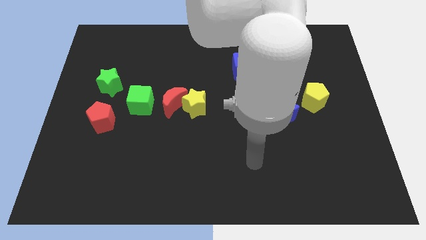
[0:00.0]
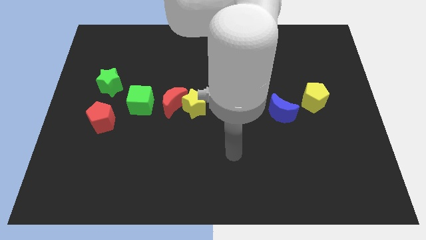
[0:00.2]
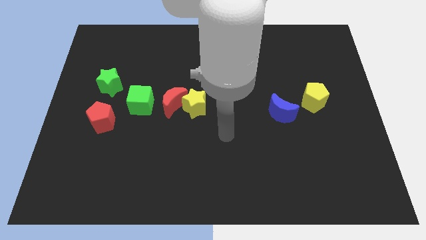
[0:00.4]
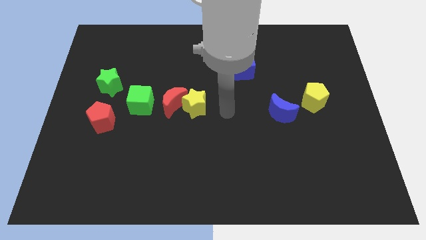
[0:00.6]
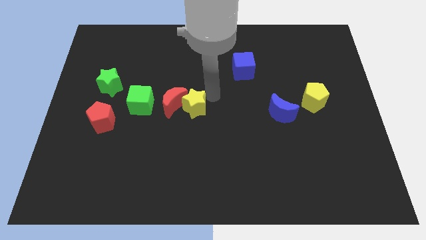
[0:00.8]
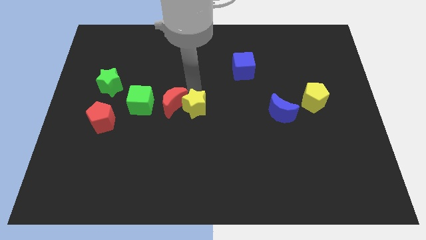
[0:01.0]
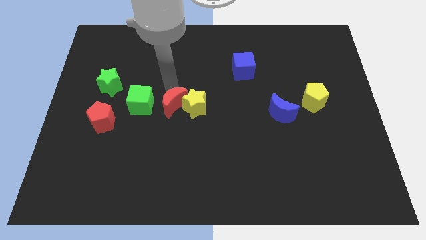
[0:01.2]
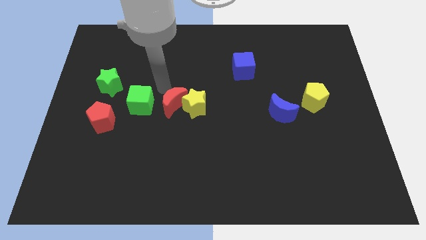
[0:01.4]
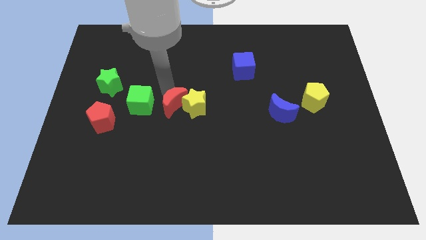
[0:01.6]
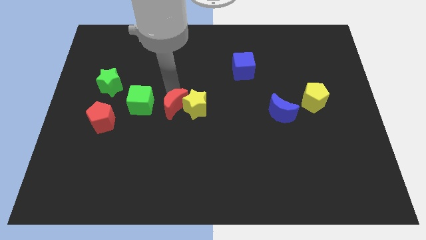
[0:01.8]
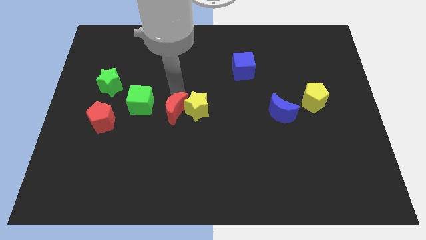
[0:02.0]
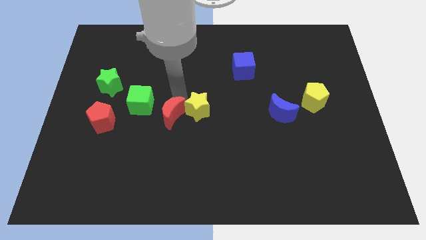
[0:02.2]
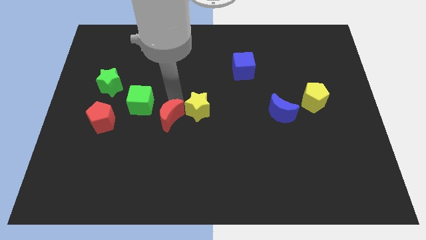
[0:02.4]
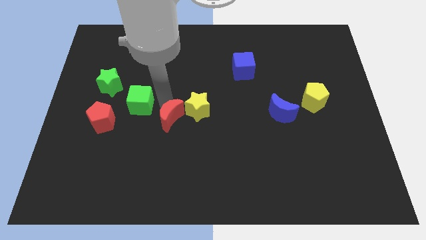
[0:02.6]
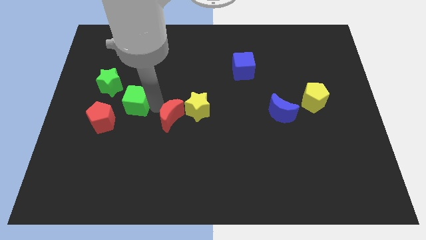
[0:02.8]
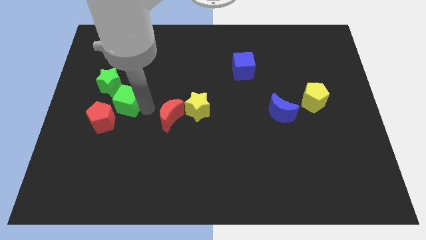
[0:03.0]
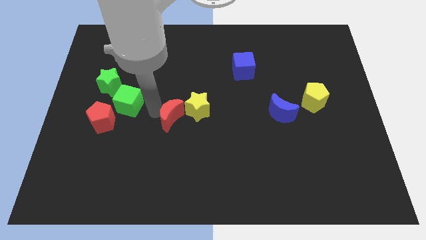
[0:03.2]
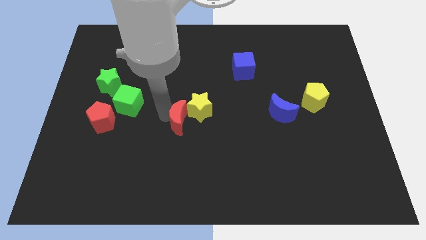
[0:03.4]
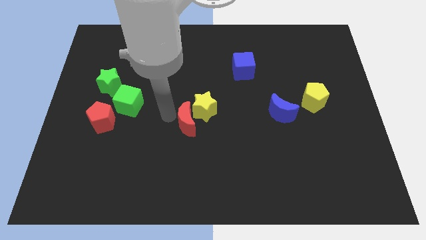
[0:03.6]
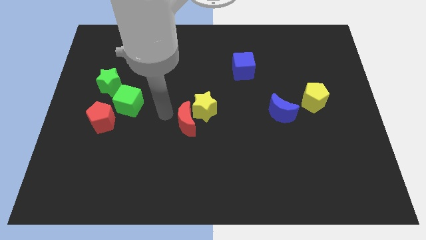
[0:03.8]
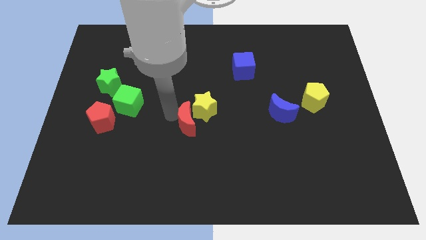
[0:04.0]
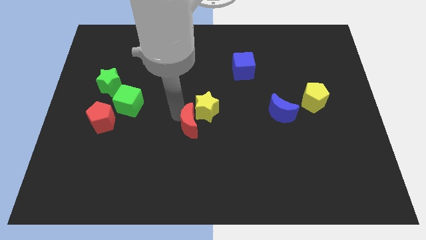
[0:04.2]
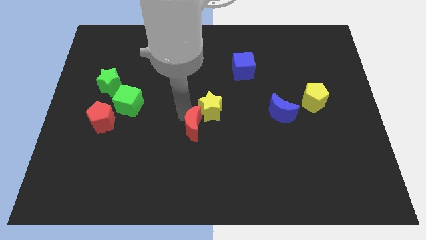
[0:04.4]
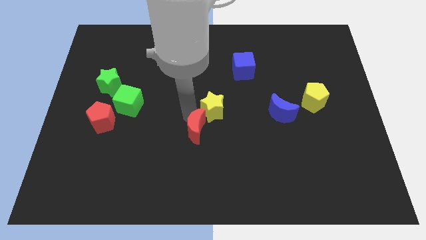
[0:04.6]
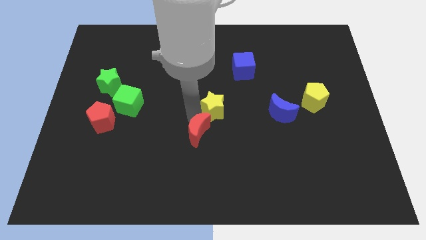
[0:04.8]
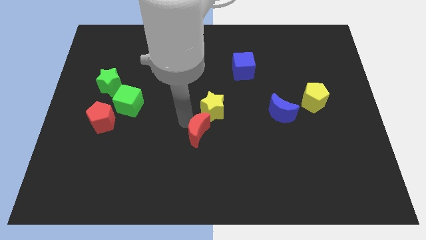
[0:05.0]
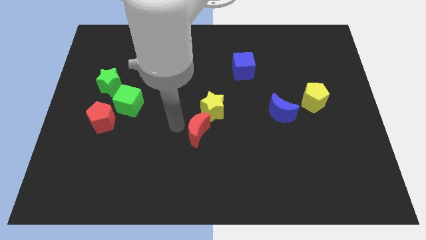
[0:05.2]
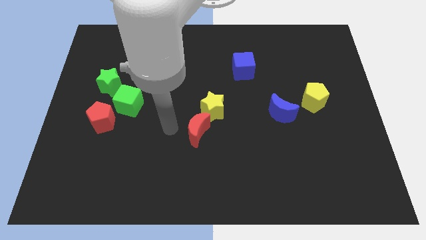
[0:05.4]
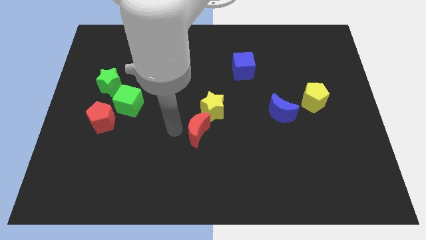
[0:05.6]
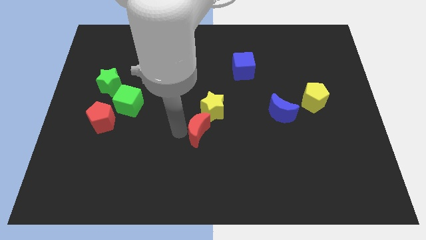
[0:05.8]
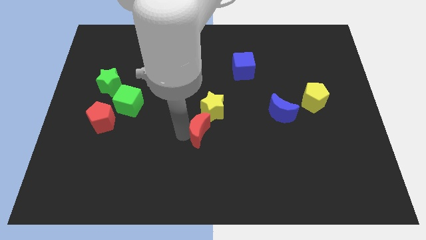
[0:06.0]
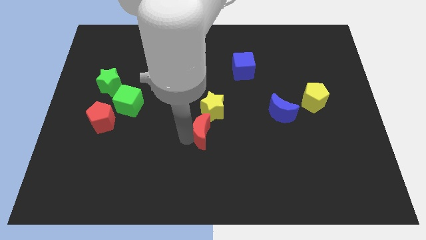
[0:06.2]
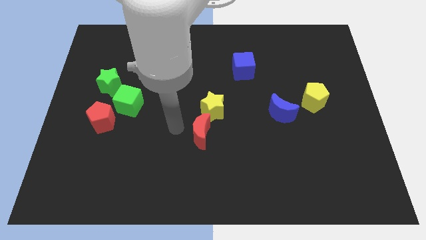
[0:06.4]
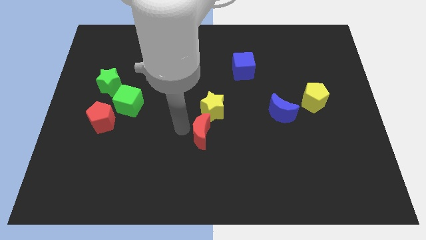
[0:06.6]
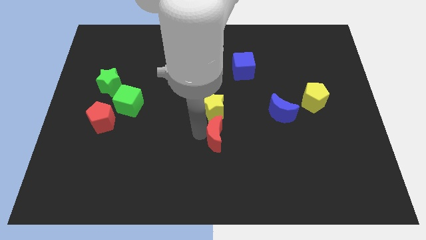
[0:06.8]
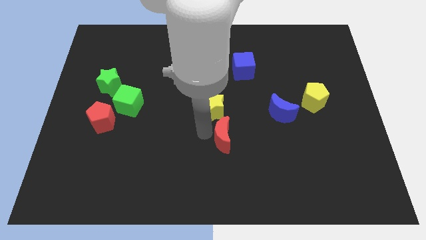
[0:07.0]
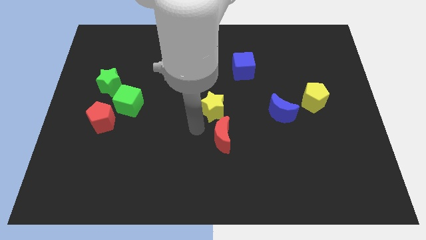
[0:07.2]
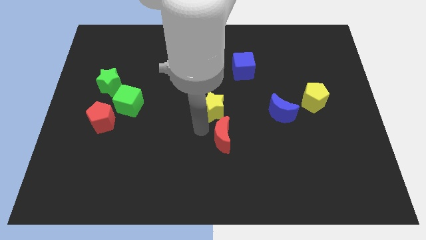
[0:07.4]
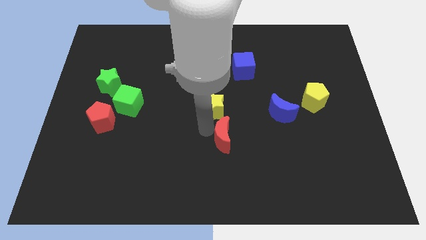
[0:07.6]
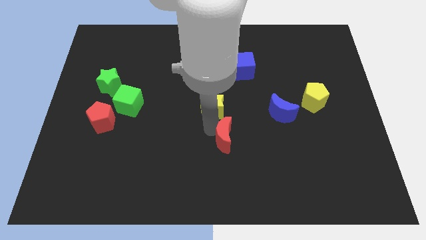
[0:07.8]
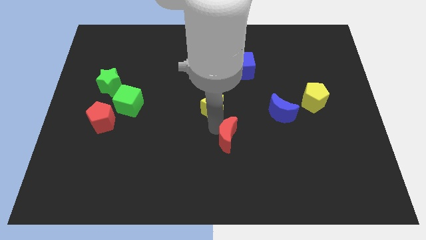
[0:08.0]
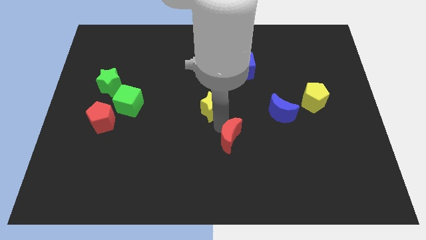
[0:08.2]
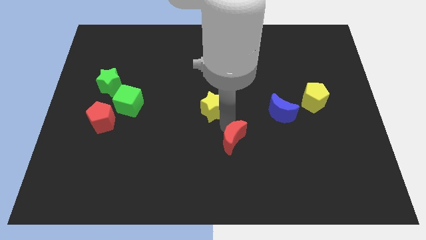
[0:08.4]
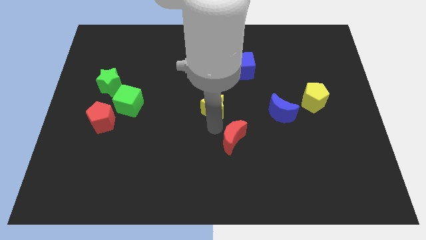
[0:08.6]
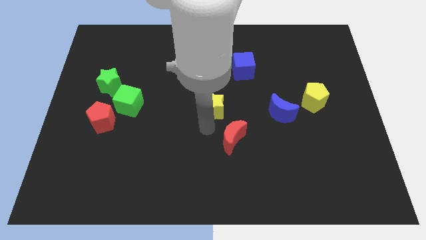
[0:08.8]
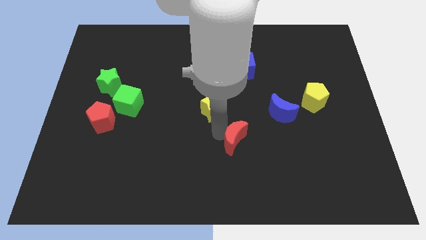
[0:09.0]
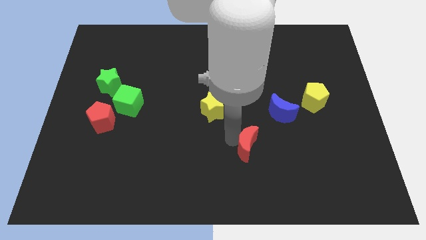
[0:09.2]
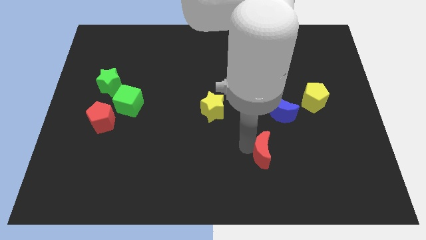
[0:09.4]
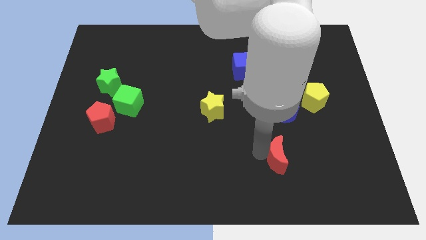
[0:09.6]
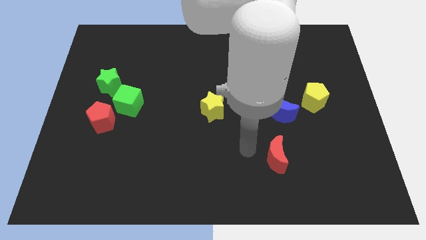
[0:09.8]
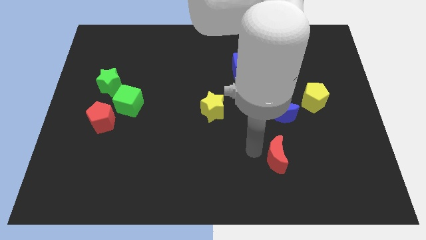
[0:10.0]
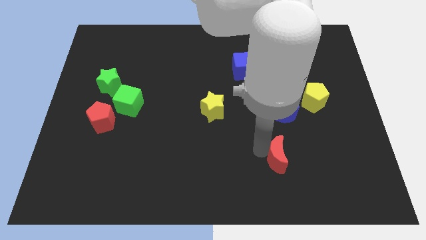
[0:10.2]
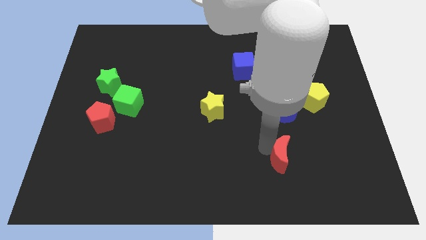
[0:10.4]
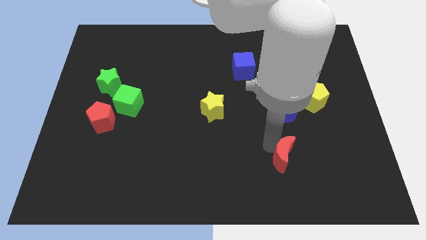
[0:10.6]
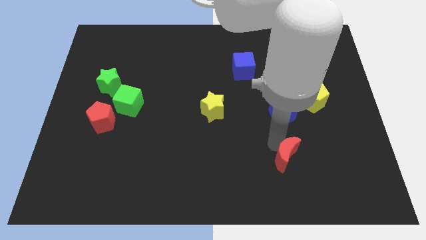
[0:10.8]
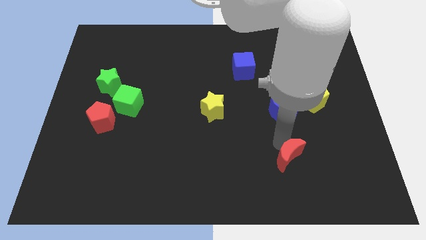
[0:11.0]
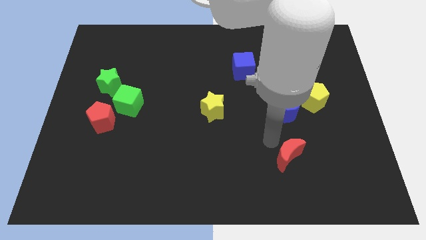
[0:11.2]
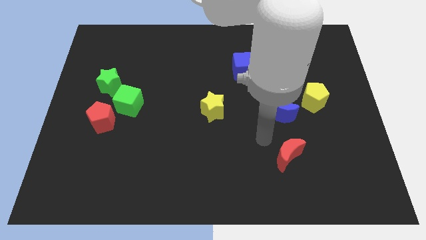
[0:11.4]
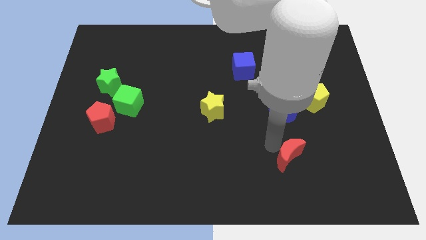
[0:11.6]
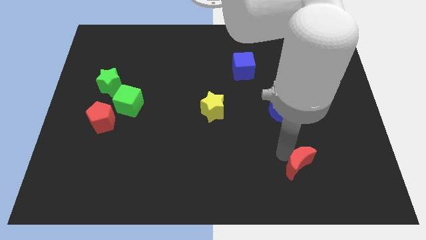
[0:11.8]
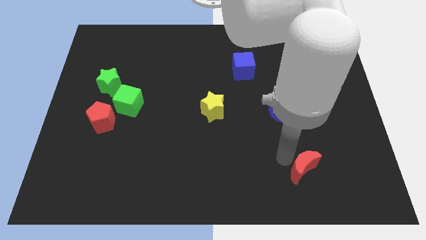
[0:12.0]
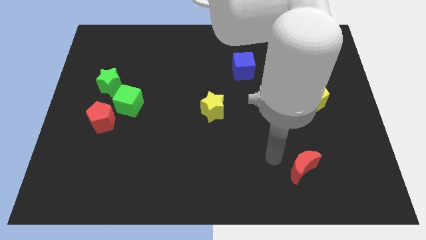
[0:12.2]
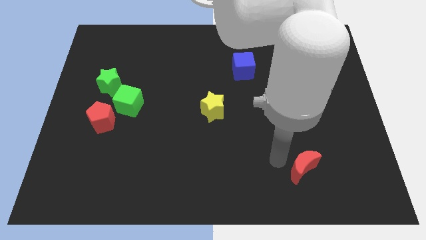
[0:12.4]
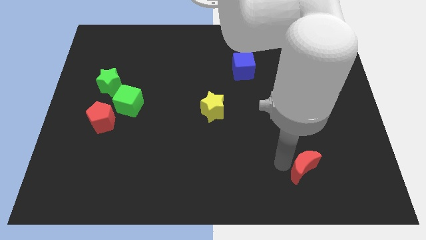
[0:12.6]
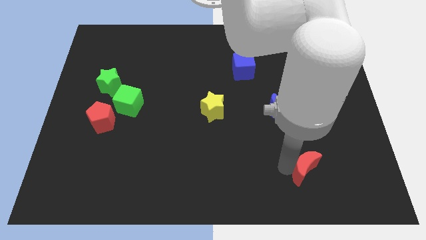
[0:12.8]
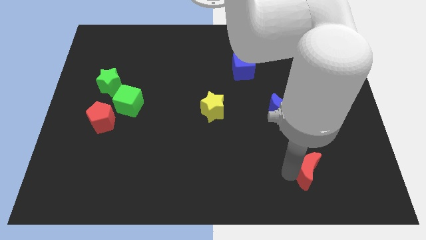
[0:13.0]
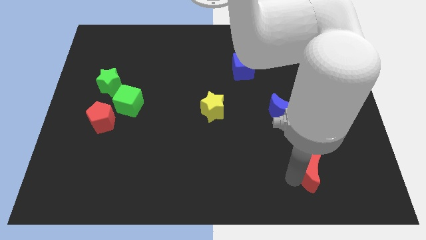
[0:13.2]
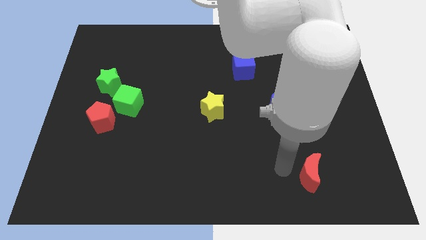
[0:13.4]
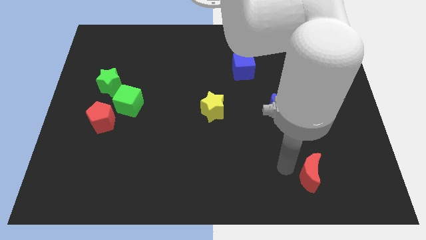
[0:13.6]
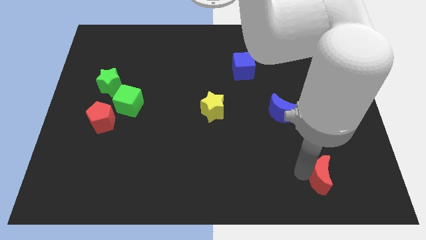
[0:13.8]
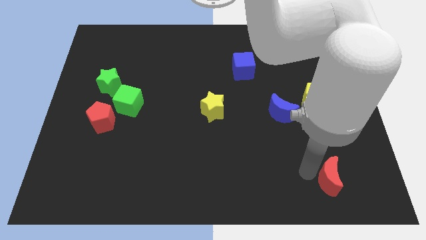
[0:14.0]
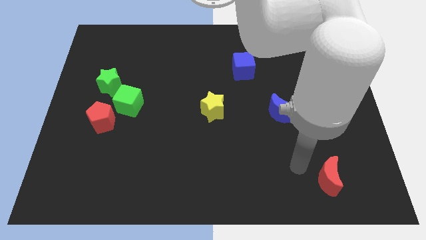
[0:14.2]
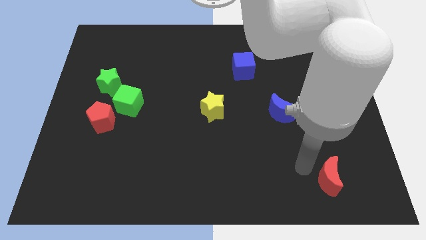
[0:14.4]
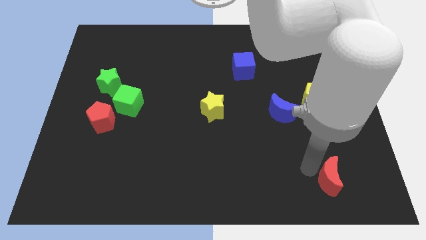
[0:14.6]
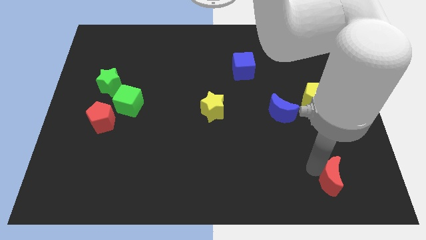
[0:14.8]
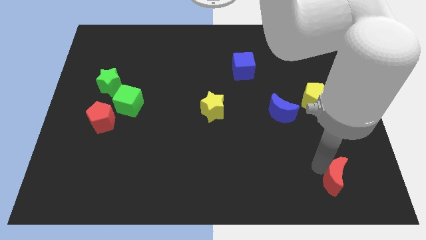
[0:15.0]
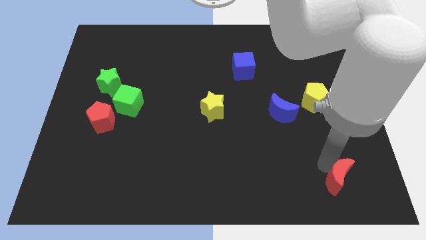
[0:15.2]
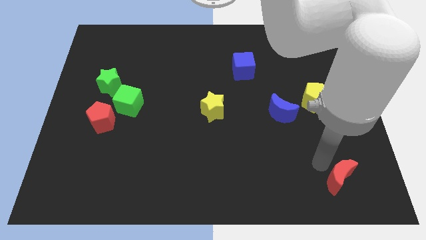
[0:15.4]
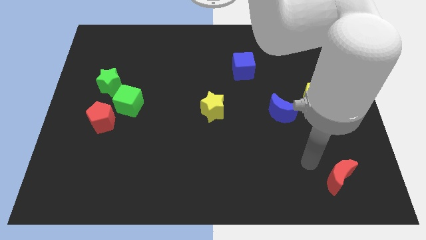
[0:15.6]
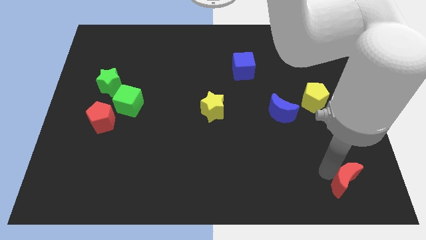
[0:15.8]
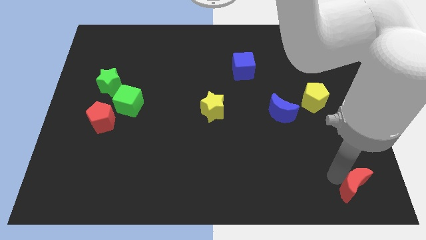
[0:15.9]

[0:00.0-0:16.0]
slide the red moon to the bottom right
